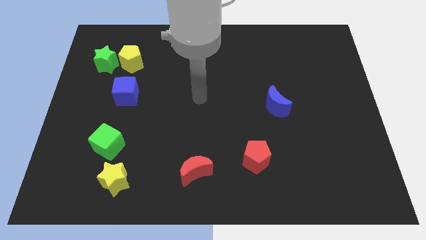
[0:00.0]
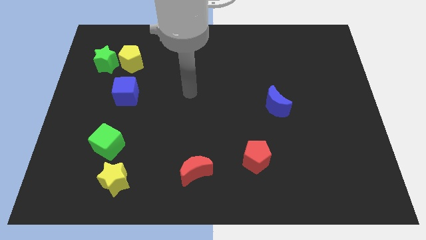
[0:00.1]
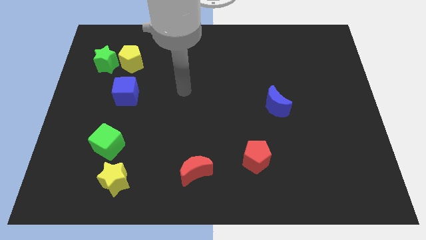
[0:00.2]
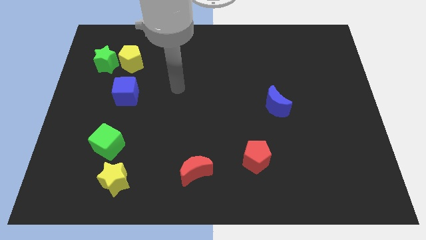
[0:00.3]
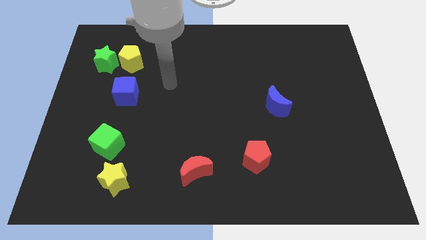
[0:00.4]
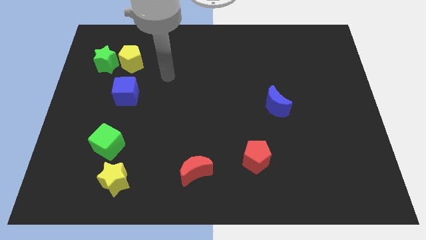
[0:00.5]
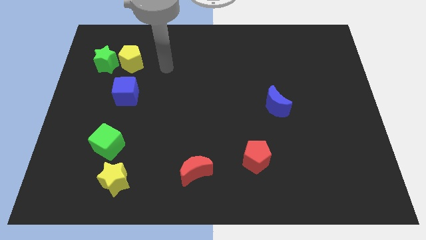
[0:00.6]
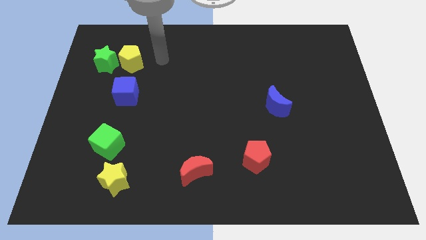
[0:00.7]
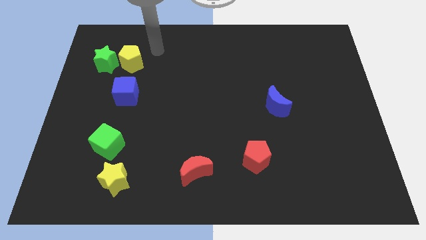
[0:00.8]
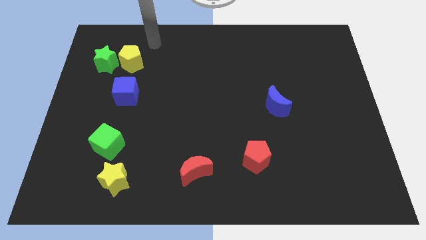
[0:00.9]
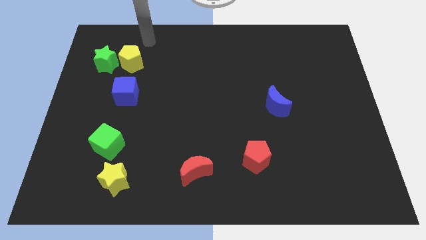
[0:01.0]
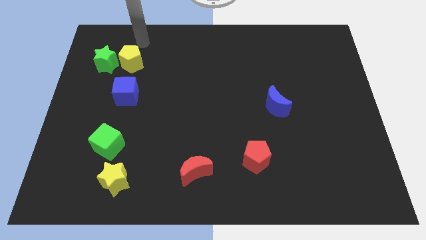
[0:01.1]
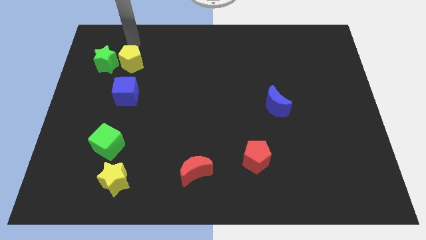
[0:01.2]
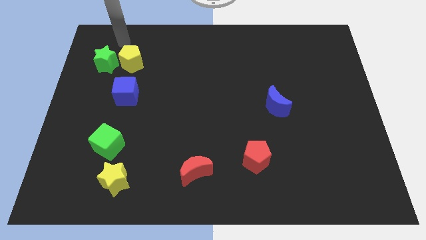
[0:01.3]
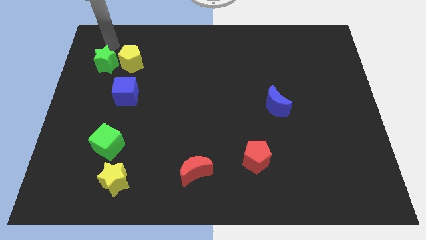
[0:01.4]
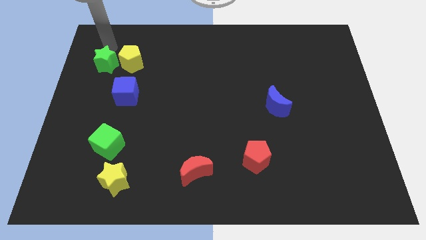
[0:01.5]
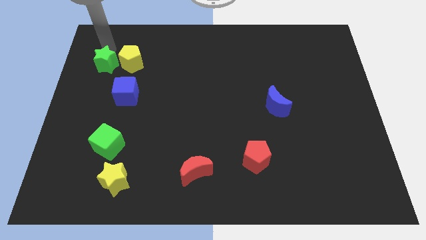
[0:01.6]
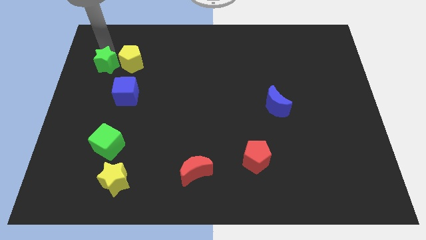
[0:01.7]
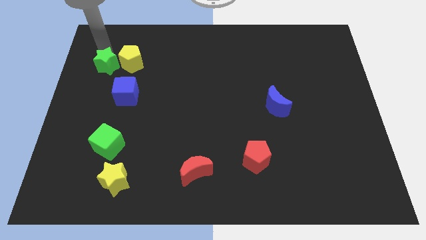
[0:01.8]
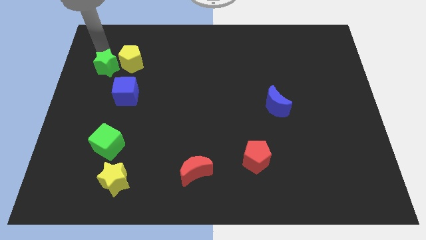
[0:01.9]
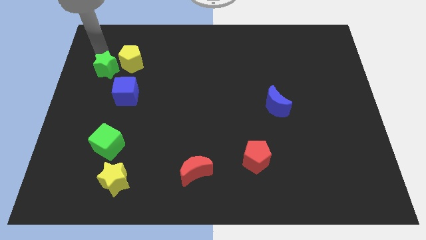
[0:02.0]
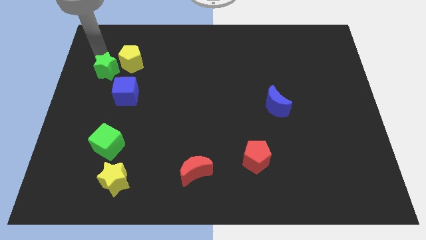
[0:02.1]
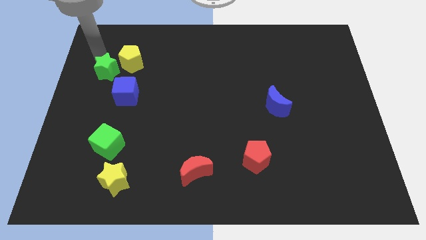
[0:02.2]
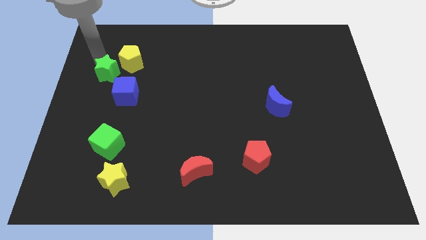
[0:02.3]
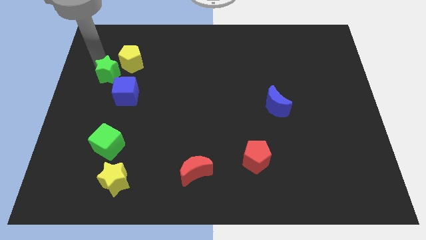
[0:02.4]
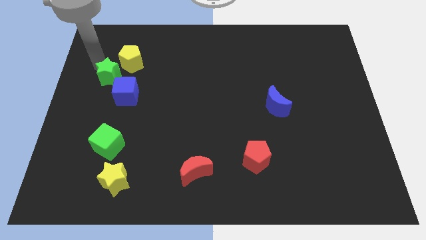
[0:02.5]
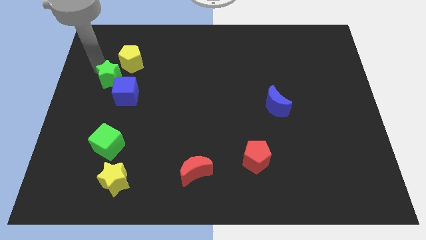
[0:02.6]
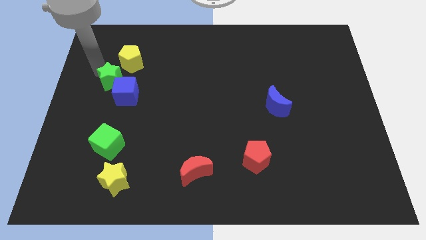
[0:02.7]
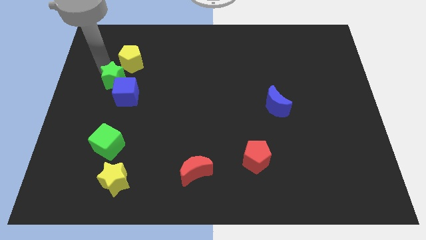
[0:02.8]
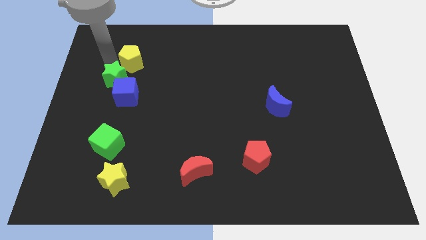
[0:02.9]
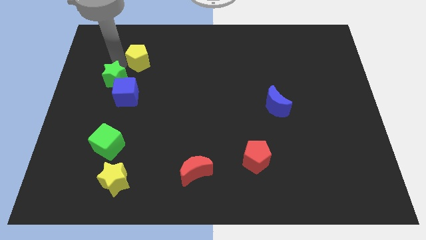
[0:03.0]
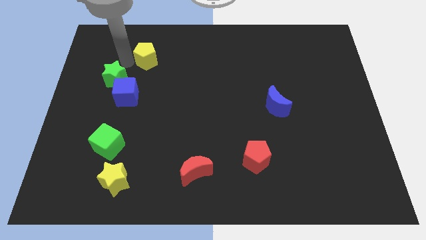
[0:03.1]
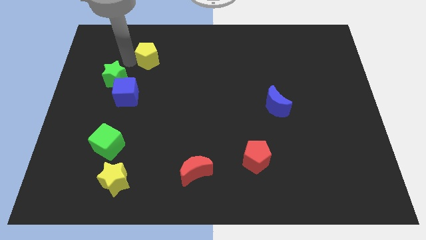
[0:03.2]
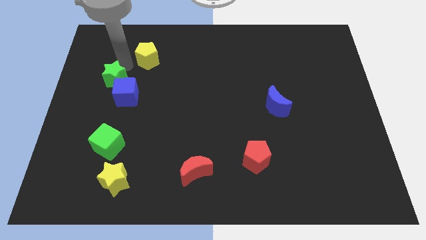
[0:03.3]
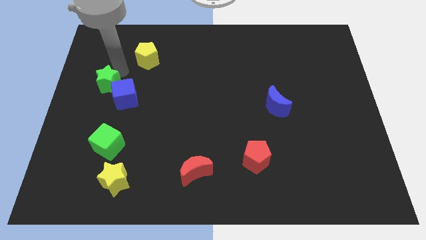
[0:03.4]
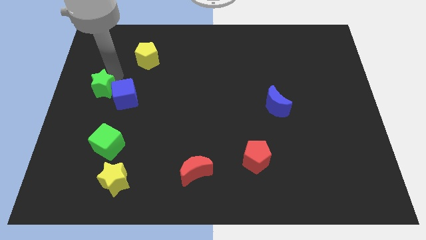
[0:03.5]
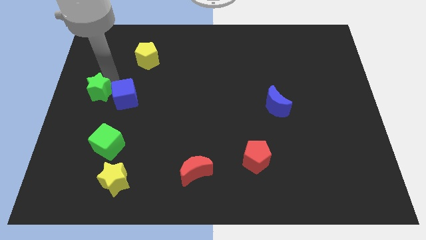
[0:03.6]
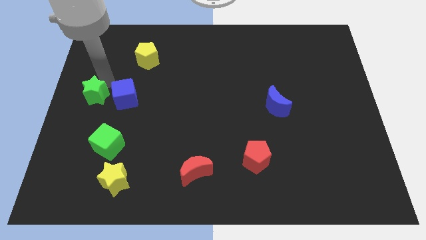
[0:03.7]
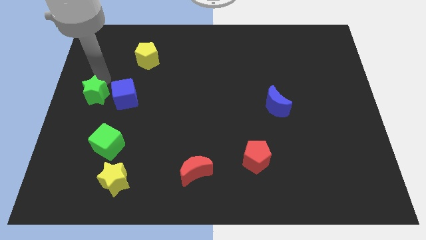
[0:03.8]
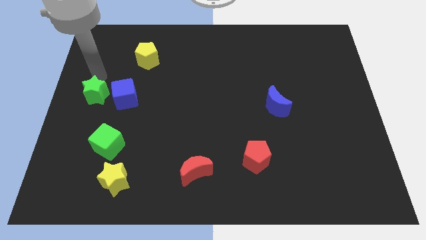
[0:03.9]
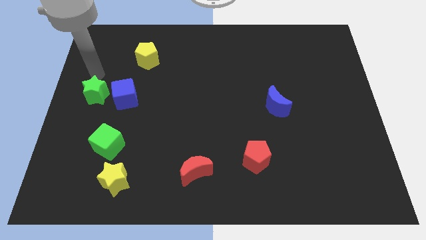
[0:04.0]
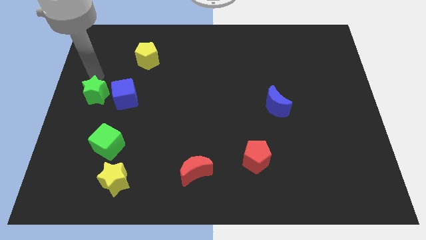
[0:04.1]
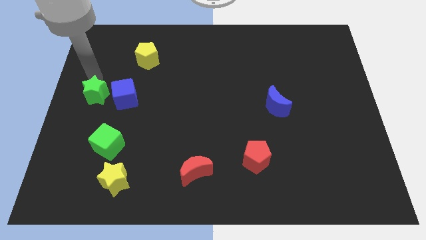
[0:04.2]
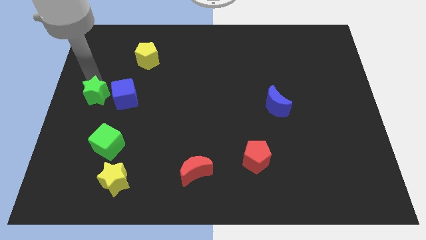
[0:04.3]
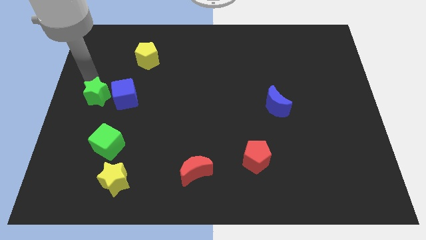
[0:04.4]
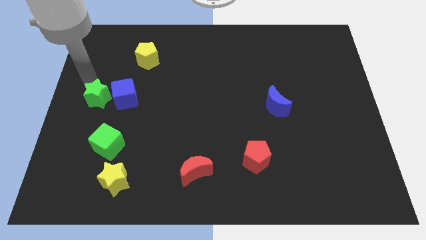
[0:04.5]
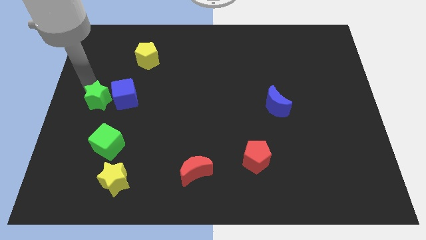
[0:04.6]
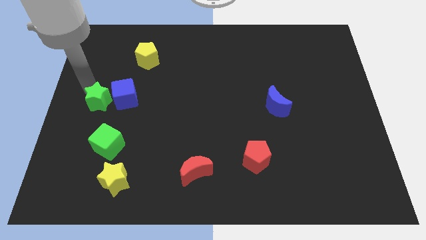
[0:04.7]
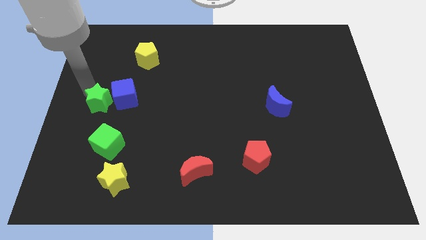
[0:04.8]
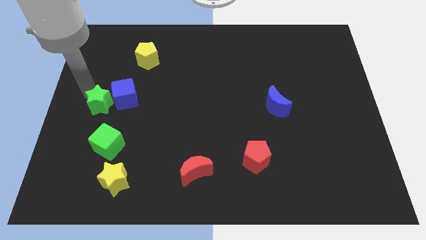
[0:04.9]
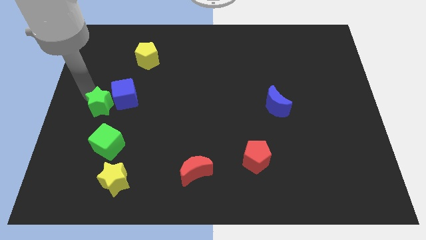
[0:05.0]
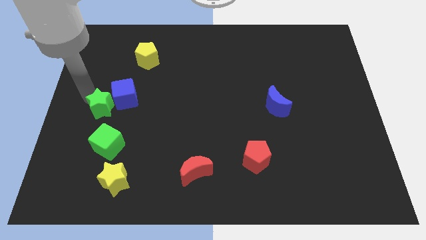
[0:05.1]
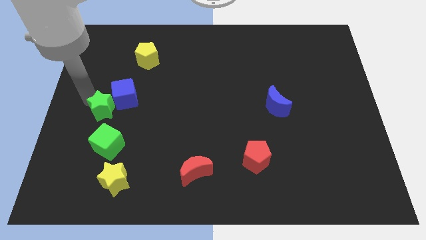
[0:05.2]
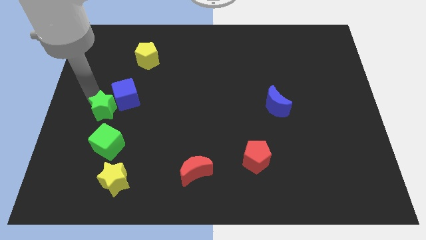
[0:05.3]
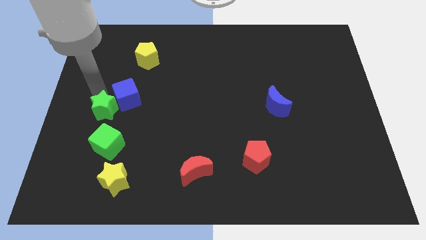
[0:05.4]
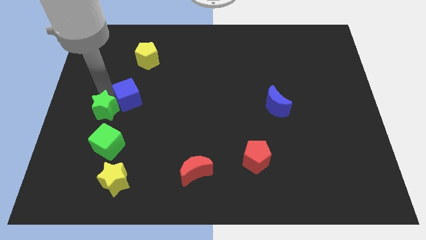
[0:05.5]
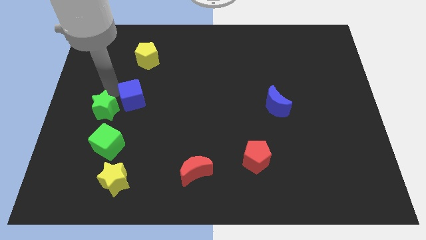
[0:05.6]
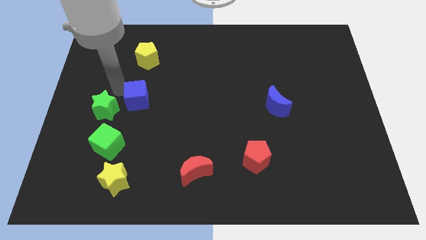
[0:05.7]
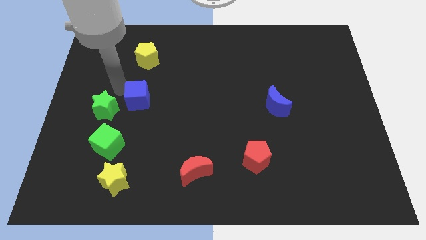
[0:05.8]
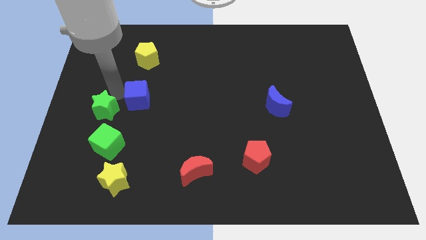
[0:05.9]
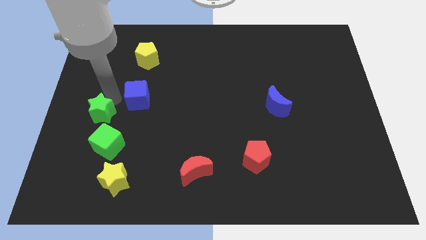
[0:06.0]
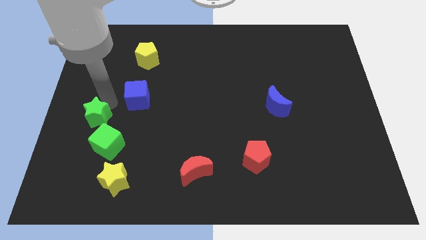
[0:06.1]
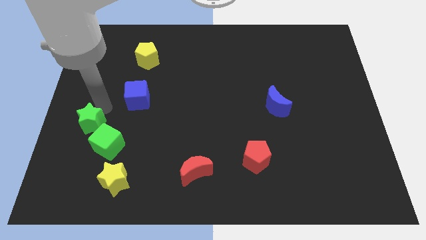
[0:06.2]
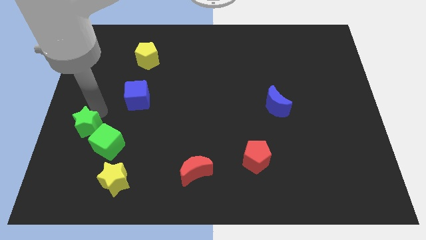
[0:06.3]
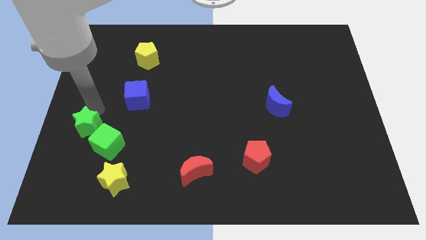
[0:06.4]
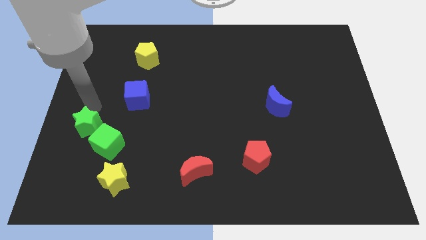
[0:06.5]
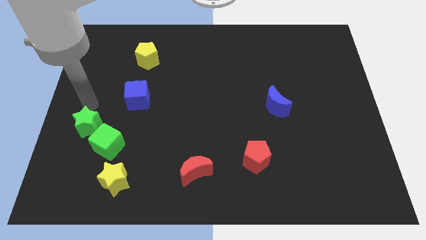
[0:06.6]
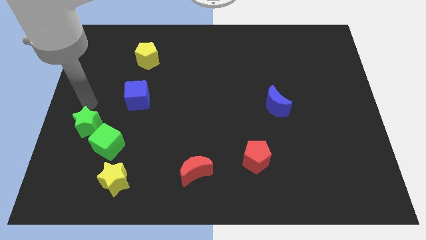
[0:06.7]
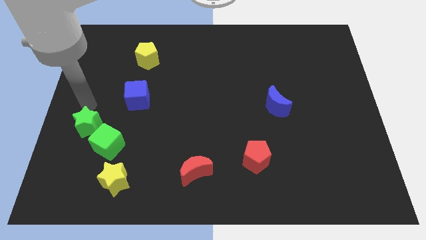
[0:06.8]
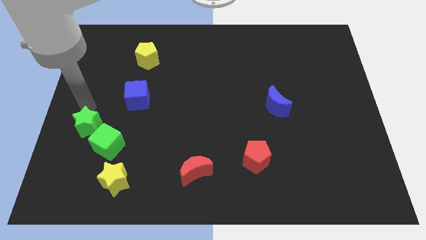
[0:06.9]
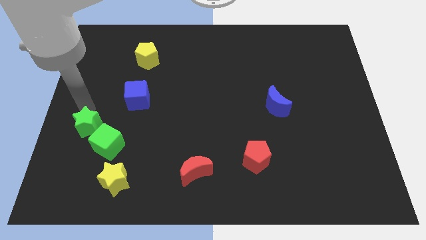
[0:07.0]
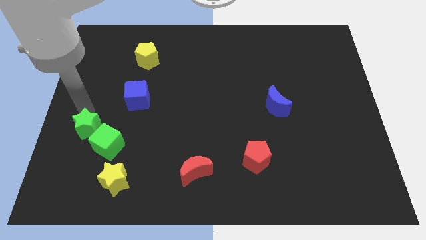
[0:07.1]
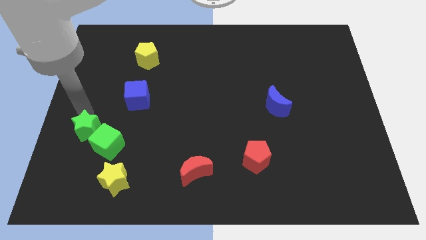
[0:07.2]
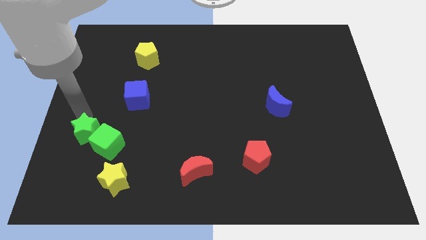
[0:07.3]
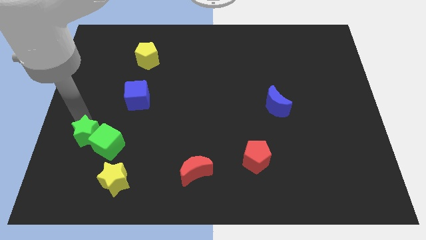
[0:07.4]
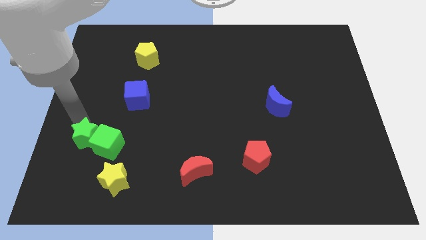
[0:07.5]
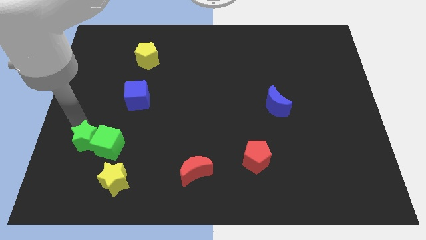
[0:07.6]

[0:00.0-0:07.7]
move the green star to the bottom left side of the green cube
